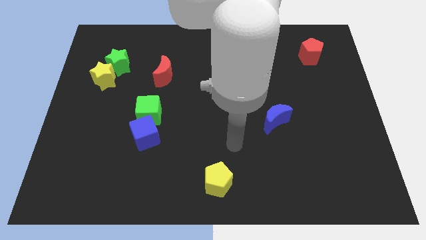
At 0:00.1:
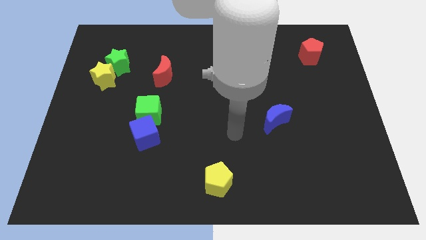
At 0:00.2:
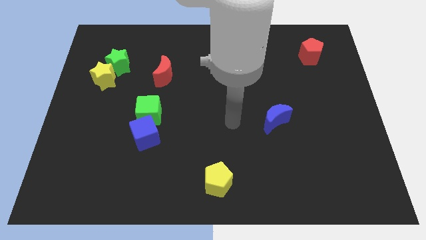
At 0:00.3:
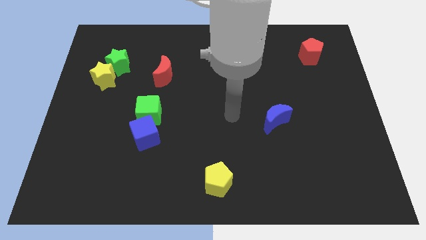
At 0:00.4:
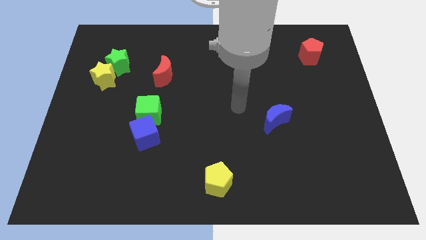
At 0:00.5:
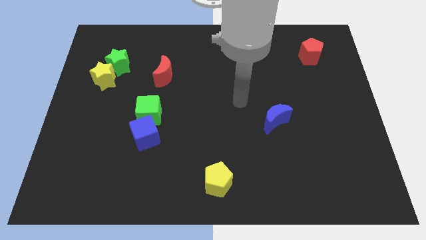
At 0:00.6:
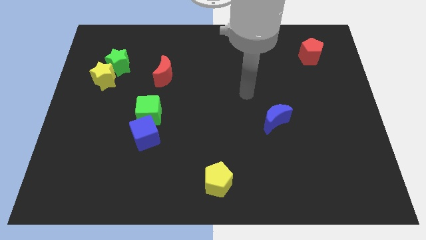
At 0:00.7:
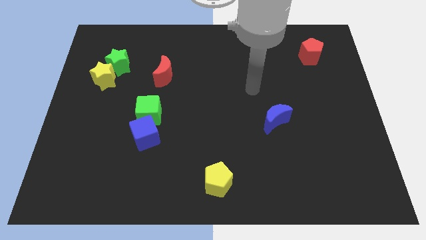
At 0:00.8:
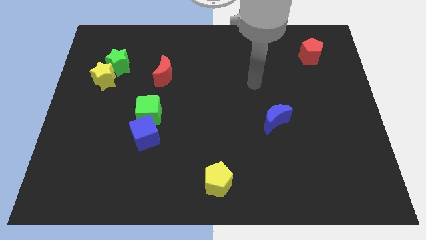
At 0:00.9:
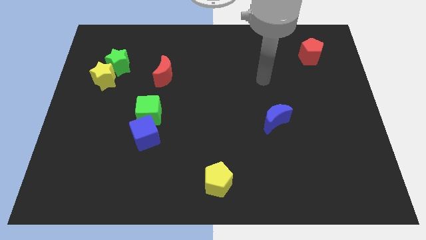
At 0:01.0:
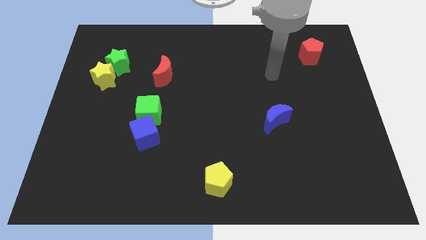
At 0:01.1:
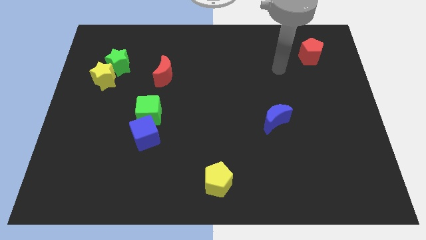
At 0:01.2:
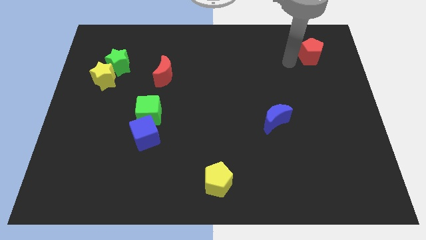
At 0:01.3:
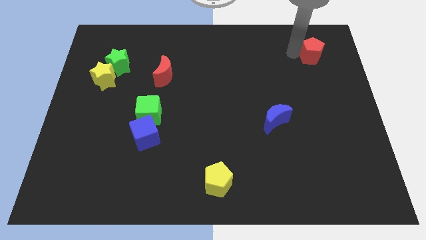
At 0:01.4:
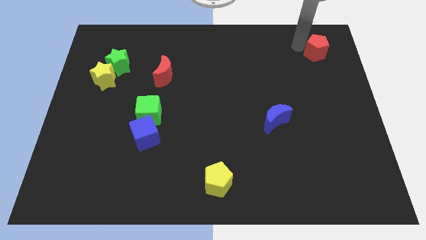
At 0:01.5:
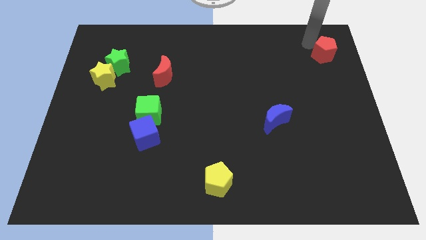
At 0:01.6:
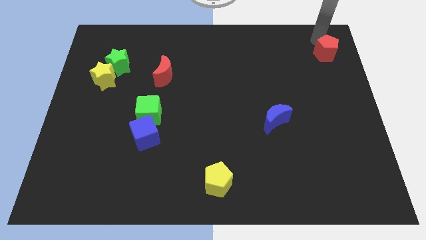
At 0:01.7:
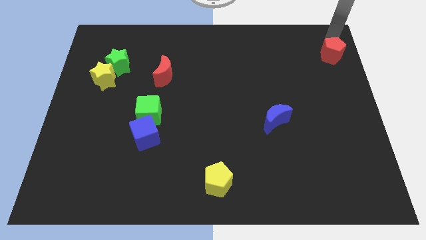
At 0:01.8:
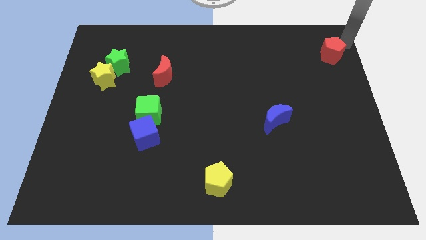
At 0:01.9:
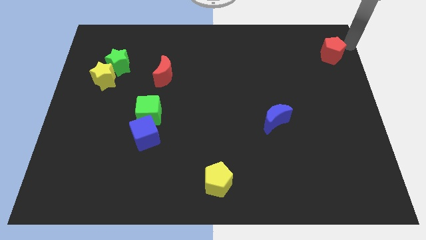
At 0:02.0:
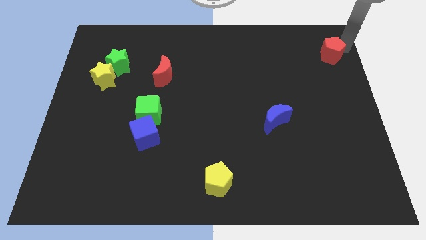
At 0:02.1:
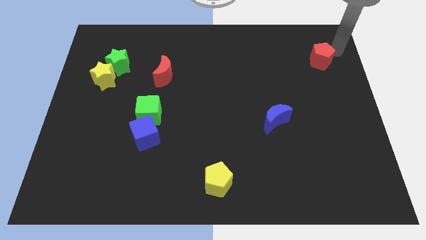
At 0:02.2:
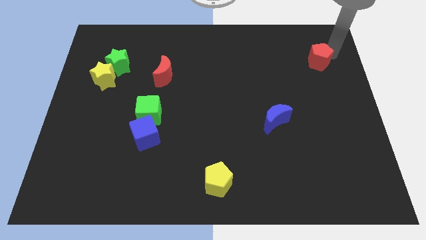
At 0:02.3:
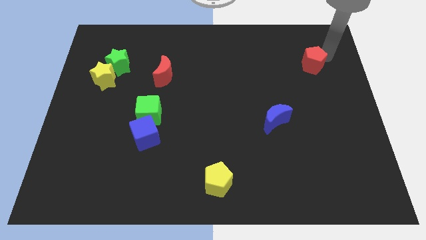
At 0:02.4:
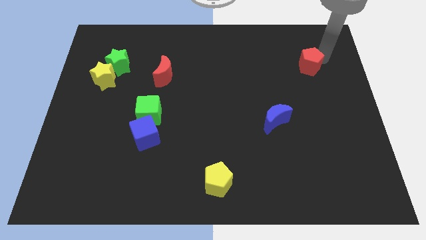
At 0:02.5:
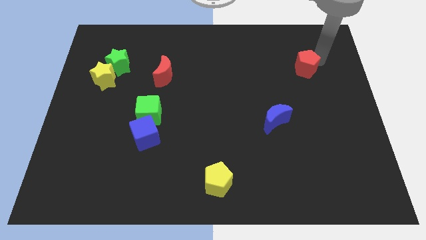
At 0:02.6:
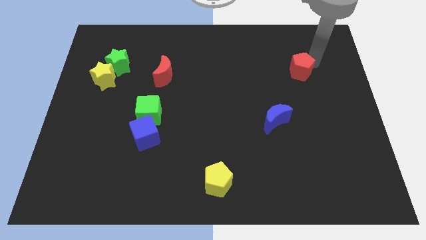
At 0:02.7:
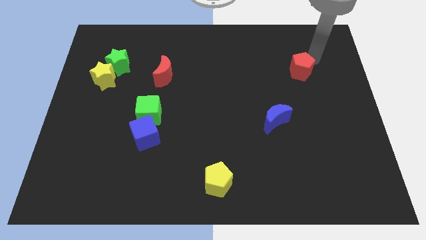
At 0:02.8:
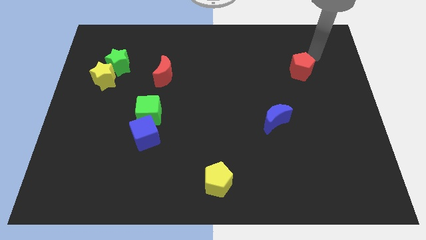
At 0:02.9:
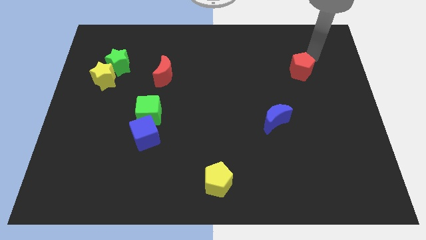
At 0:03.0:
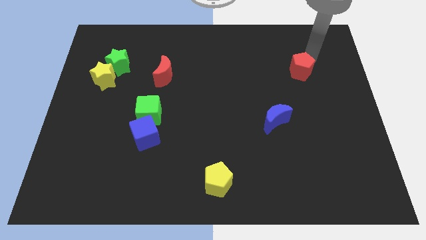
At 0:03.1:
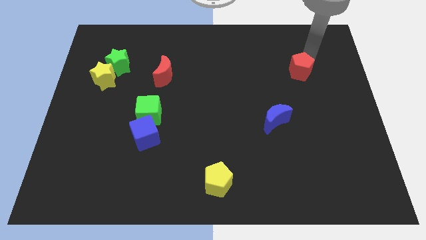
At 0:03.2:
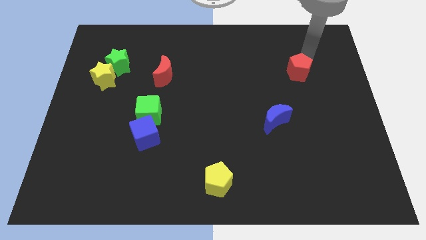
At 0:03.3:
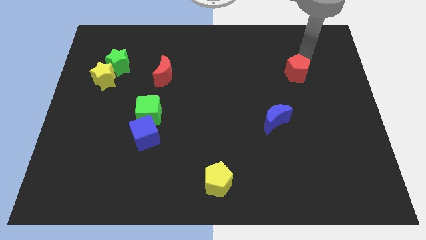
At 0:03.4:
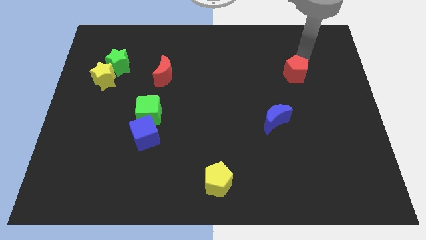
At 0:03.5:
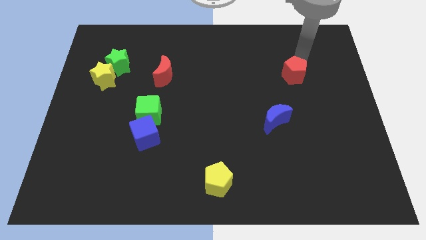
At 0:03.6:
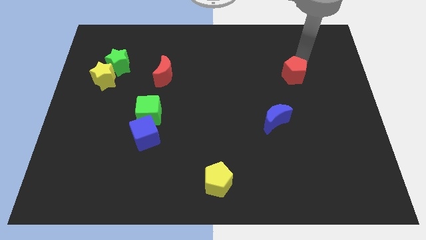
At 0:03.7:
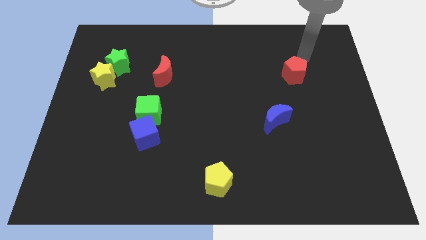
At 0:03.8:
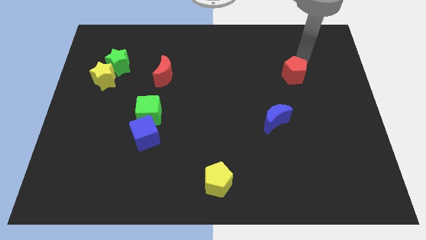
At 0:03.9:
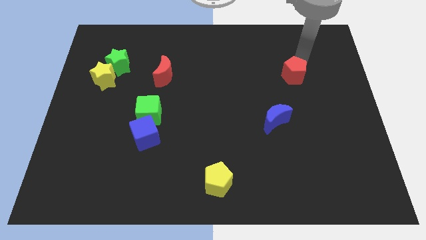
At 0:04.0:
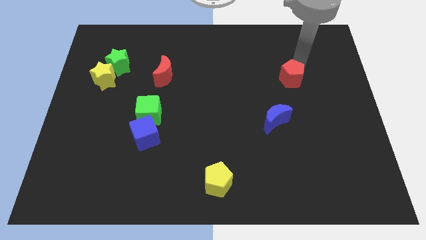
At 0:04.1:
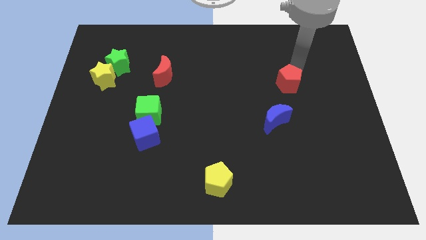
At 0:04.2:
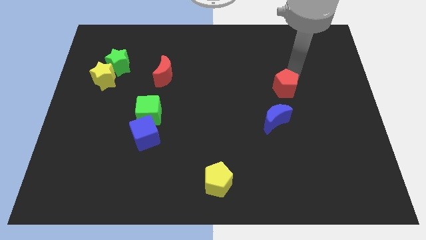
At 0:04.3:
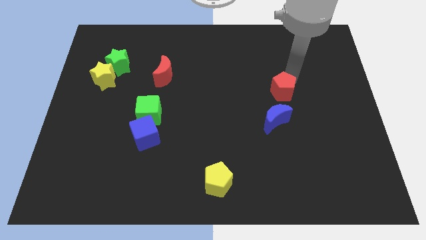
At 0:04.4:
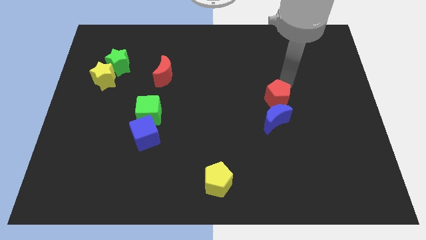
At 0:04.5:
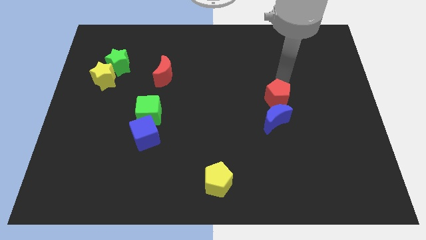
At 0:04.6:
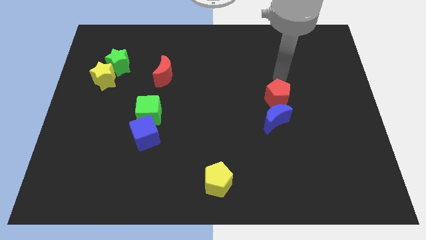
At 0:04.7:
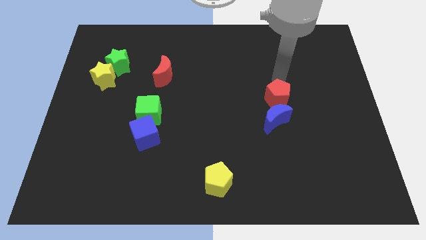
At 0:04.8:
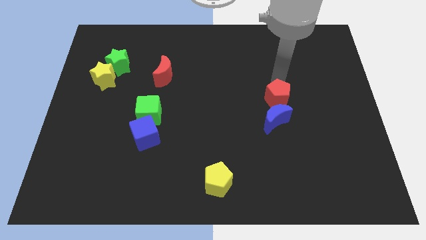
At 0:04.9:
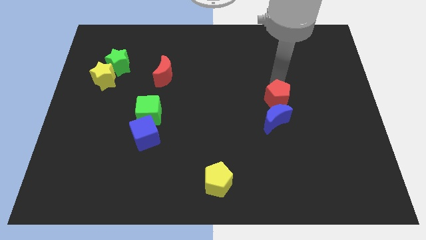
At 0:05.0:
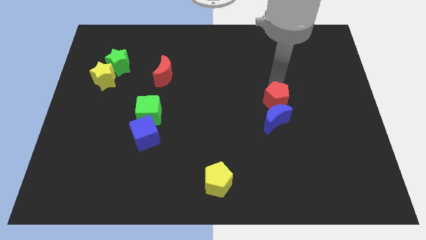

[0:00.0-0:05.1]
move the red pentagon towards the blue moon

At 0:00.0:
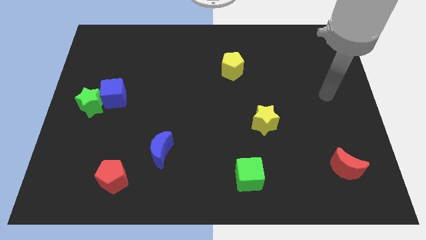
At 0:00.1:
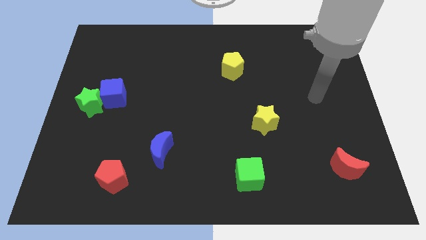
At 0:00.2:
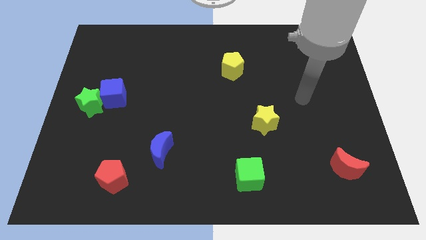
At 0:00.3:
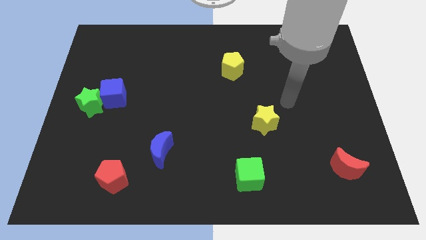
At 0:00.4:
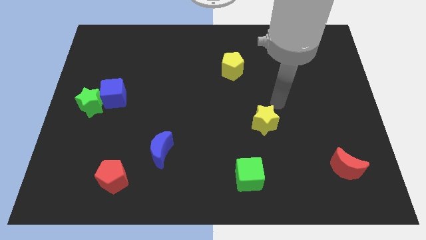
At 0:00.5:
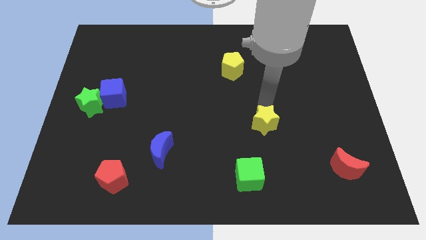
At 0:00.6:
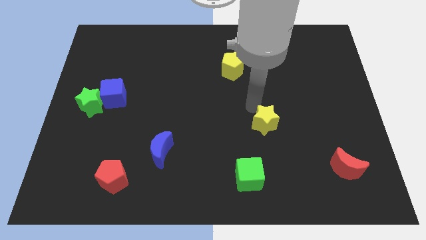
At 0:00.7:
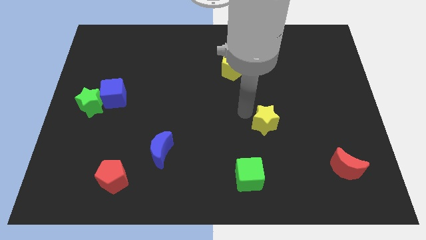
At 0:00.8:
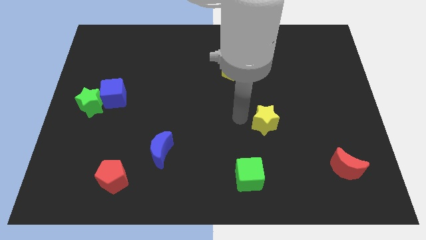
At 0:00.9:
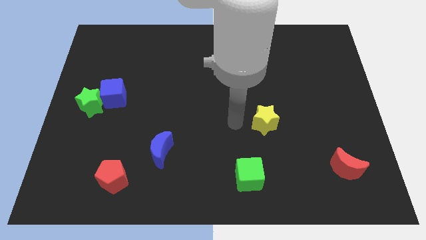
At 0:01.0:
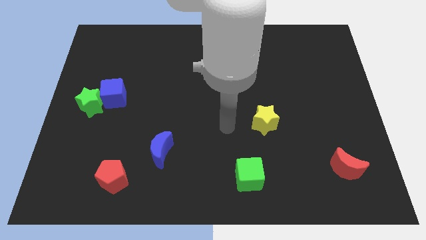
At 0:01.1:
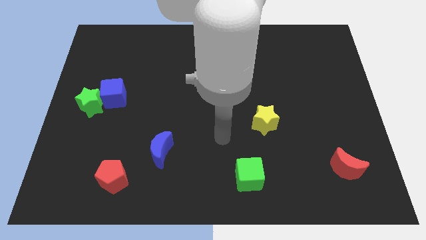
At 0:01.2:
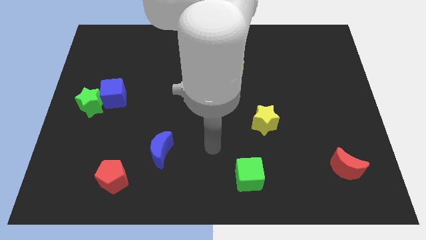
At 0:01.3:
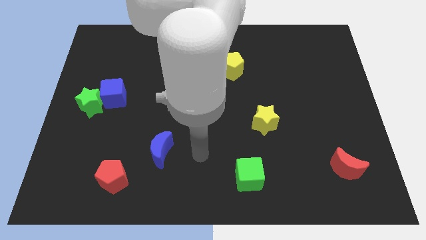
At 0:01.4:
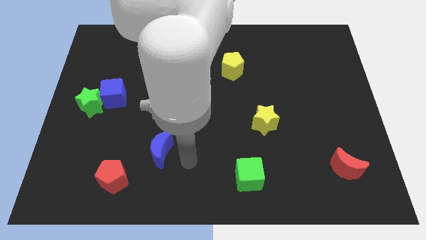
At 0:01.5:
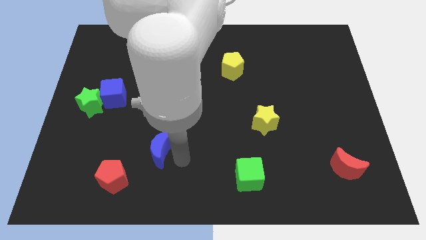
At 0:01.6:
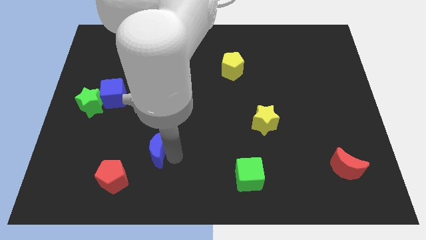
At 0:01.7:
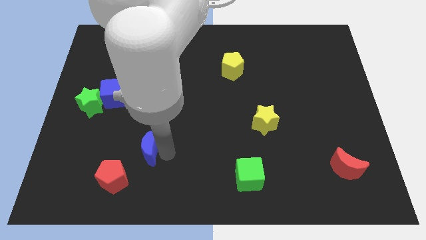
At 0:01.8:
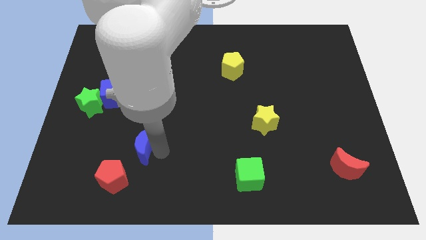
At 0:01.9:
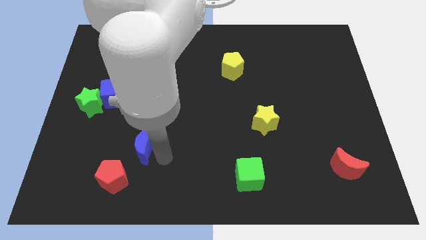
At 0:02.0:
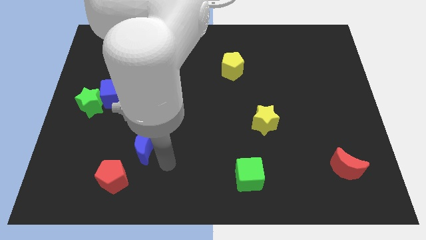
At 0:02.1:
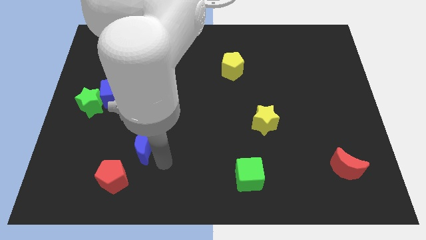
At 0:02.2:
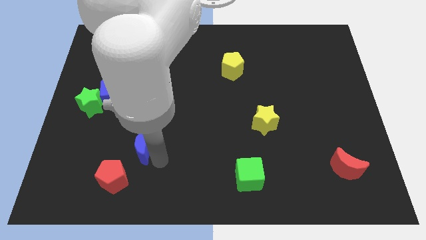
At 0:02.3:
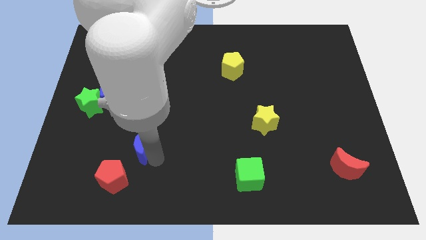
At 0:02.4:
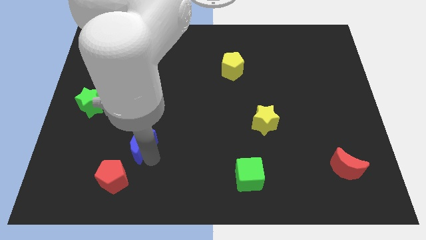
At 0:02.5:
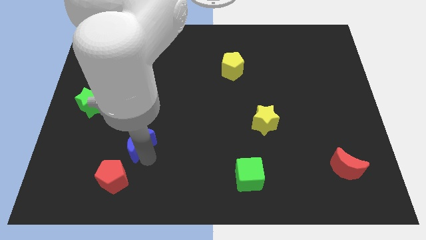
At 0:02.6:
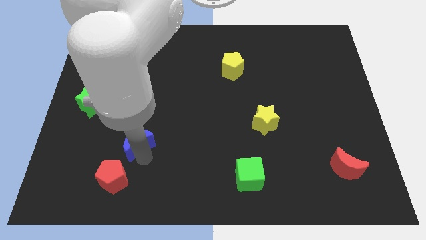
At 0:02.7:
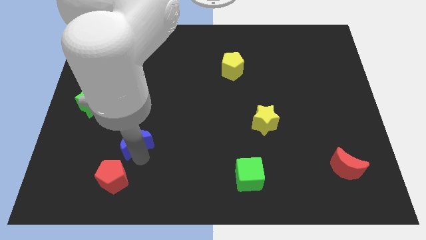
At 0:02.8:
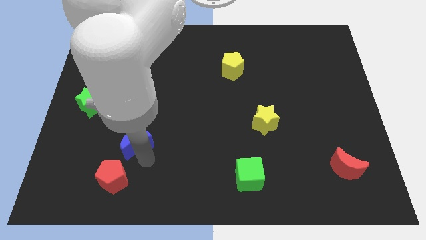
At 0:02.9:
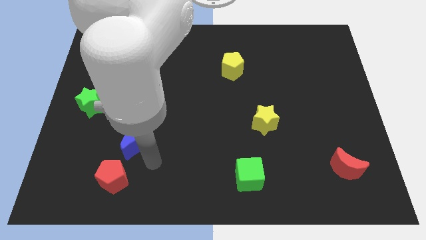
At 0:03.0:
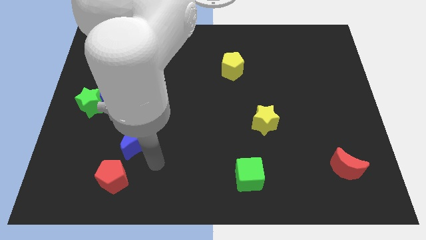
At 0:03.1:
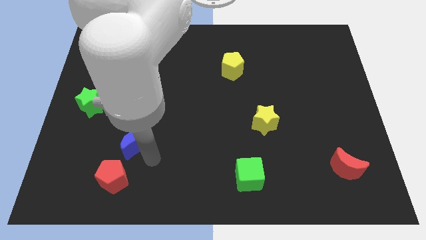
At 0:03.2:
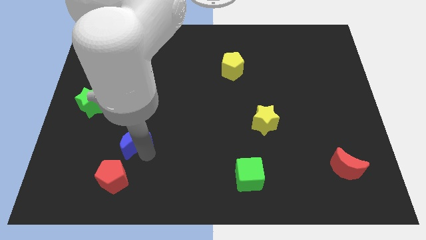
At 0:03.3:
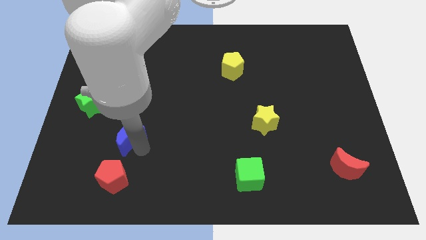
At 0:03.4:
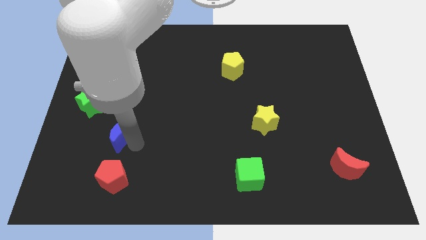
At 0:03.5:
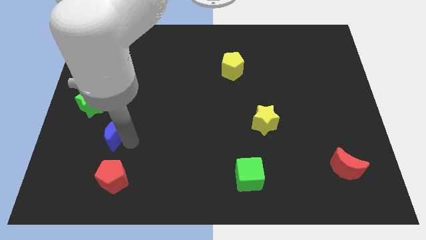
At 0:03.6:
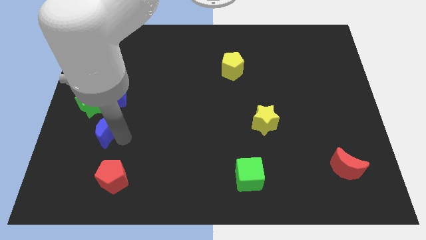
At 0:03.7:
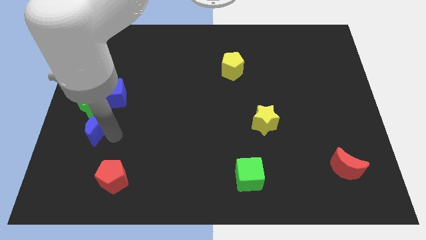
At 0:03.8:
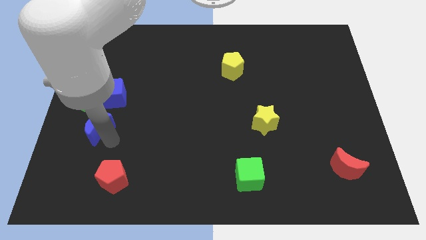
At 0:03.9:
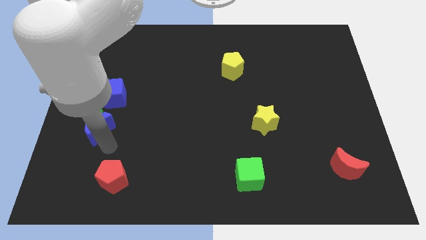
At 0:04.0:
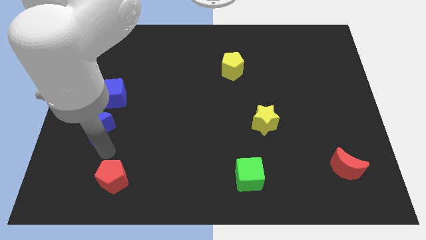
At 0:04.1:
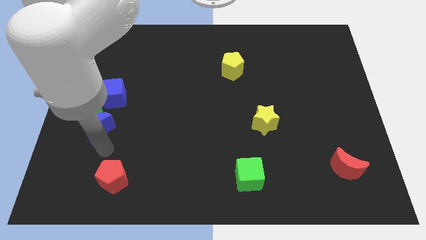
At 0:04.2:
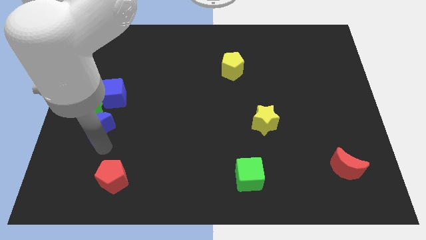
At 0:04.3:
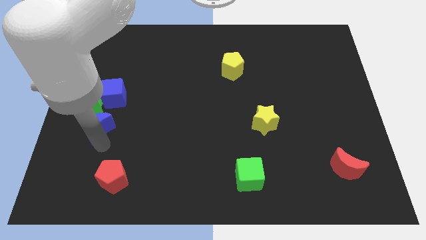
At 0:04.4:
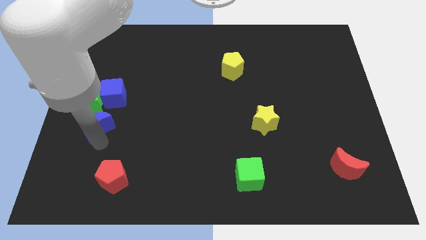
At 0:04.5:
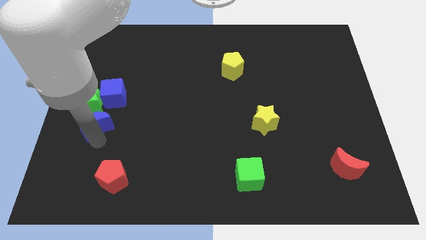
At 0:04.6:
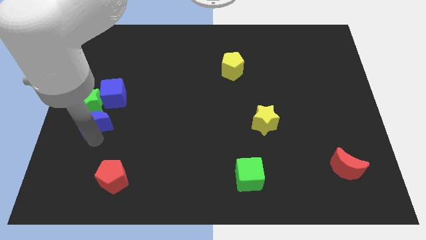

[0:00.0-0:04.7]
push the blue moon to the green star
